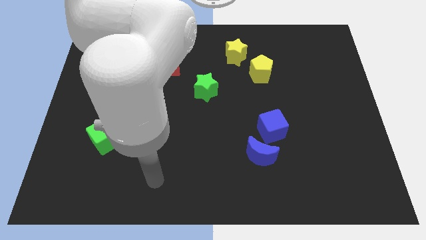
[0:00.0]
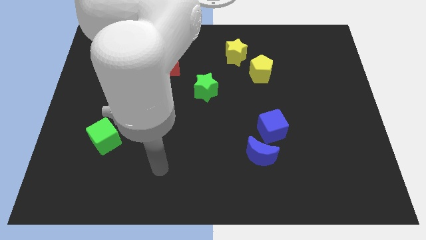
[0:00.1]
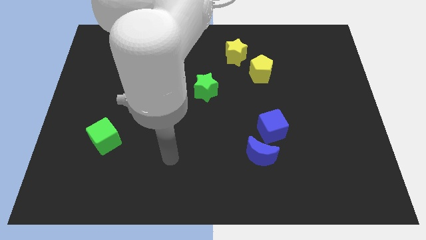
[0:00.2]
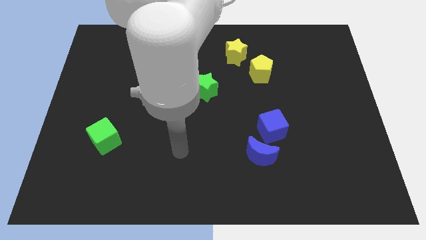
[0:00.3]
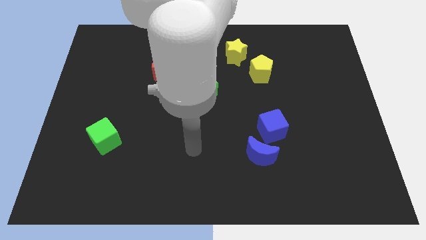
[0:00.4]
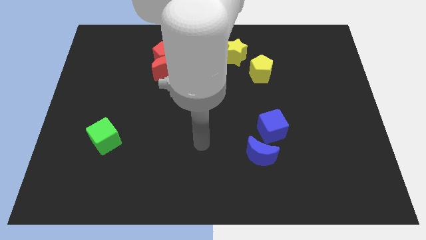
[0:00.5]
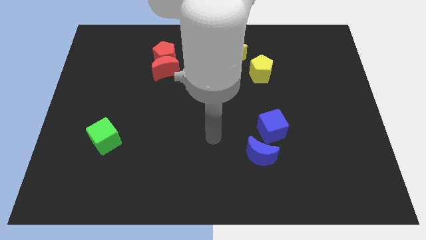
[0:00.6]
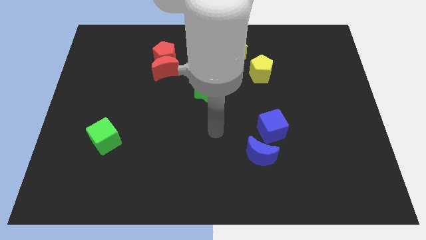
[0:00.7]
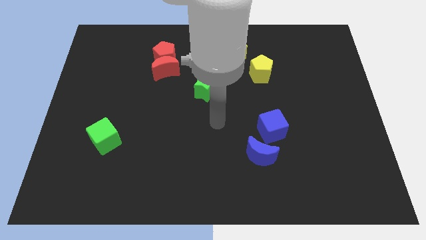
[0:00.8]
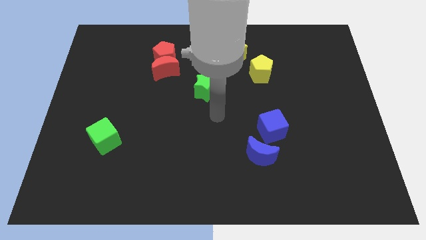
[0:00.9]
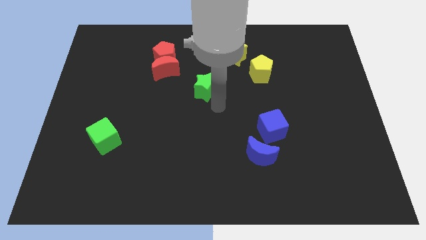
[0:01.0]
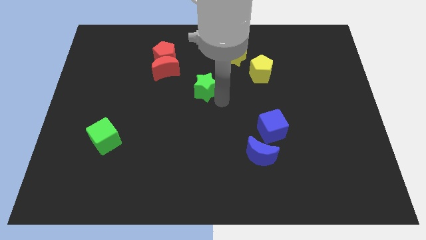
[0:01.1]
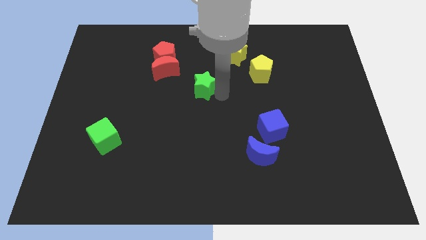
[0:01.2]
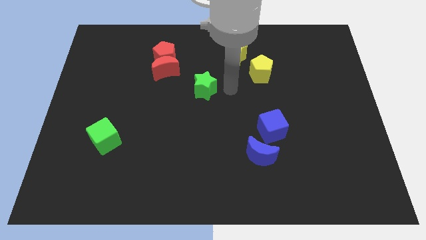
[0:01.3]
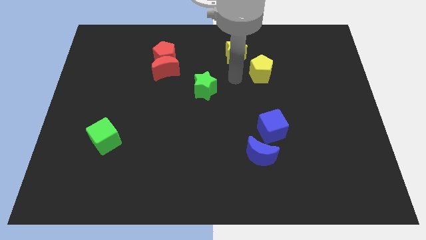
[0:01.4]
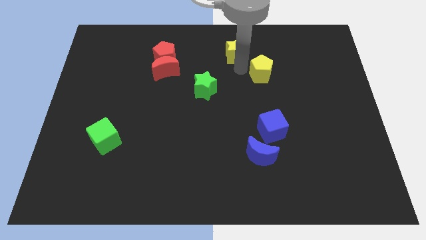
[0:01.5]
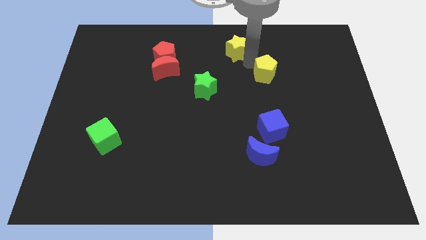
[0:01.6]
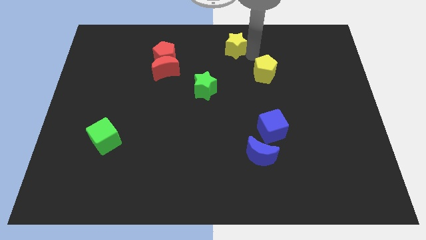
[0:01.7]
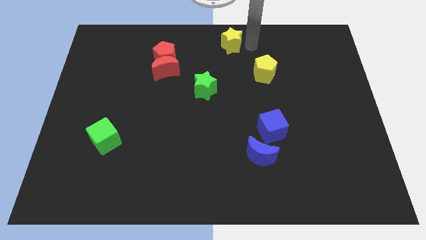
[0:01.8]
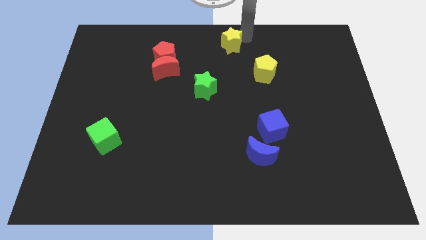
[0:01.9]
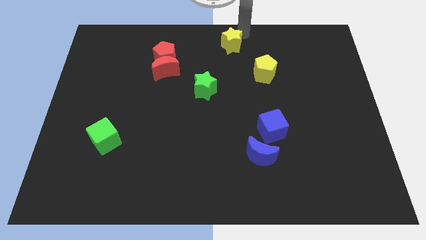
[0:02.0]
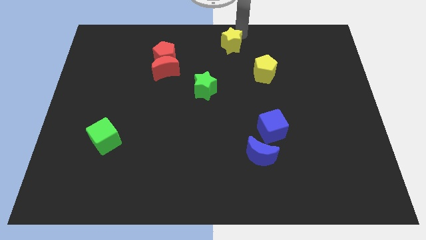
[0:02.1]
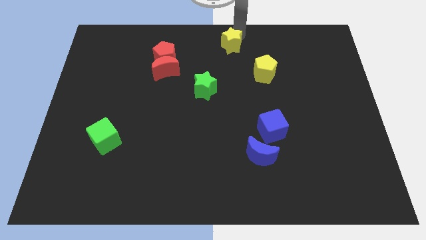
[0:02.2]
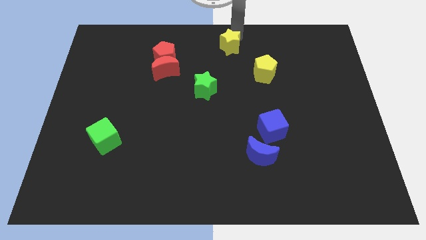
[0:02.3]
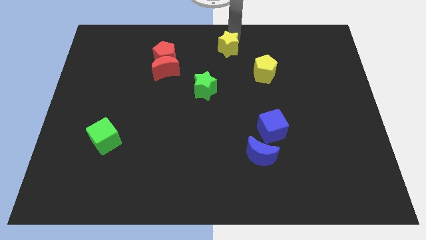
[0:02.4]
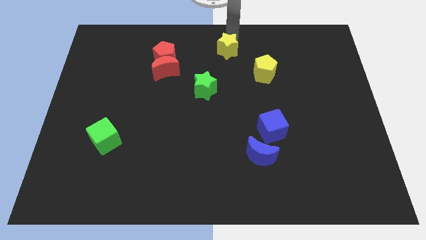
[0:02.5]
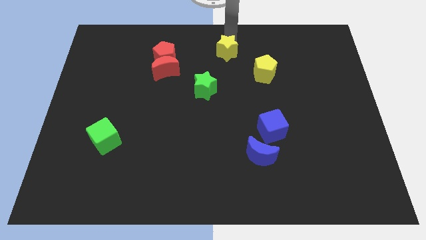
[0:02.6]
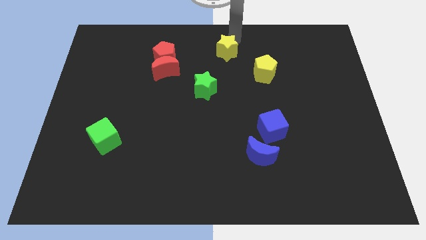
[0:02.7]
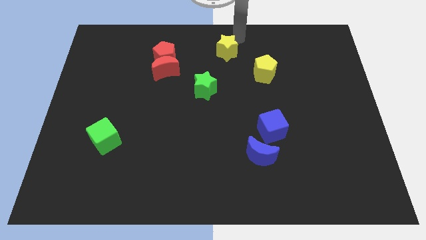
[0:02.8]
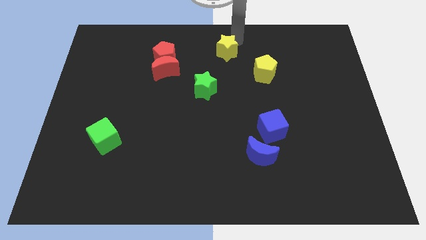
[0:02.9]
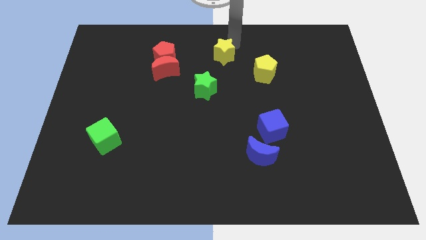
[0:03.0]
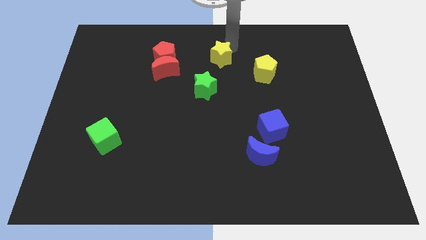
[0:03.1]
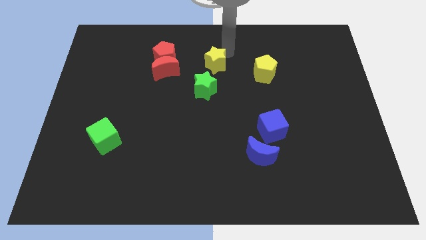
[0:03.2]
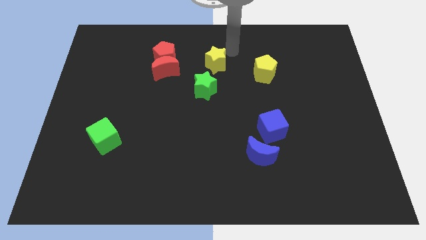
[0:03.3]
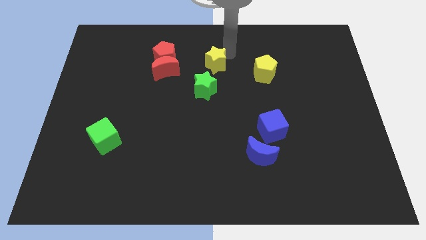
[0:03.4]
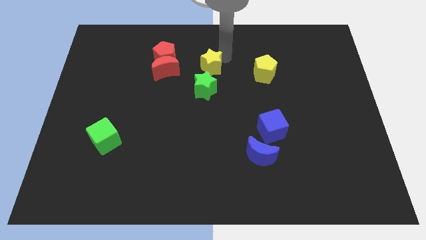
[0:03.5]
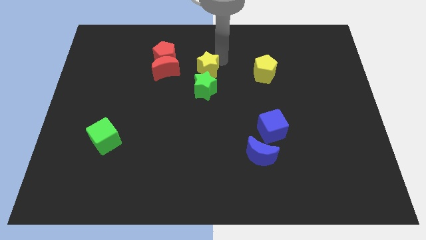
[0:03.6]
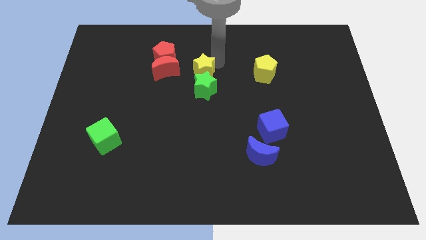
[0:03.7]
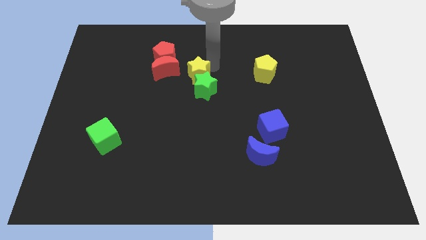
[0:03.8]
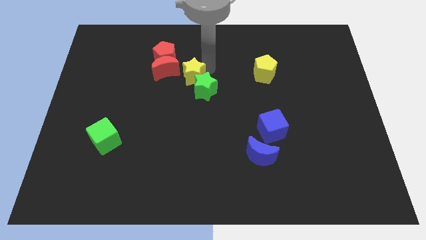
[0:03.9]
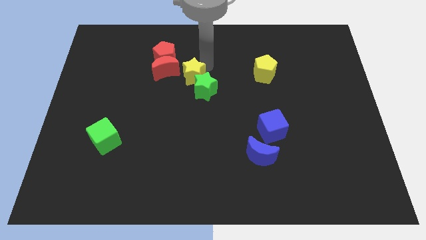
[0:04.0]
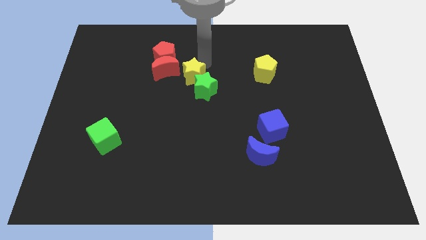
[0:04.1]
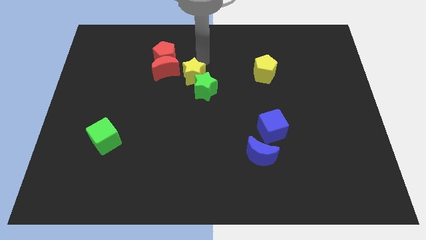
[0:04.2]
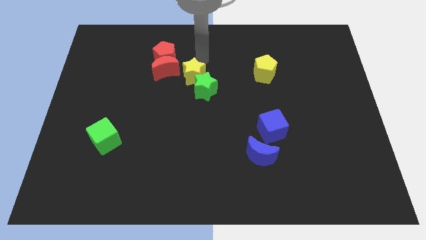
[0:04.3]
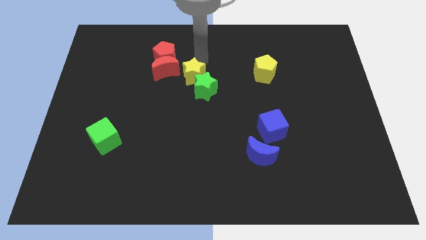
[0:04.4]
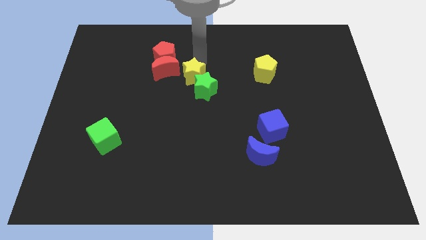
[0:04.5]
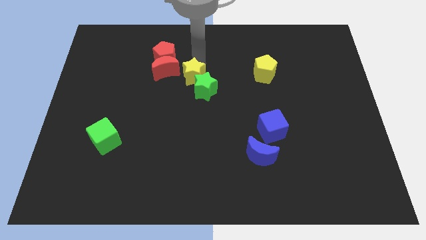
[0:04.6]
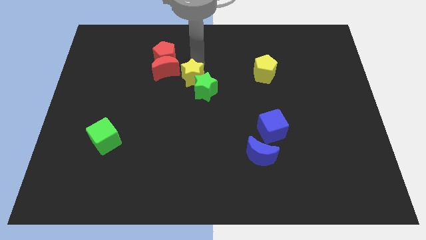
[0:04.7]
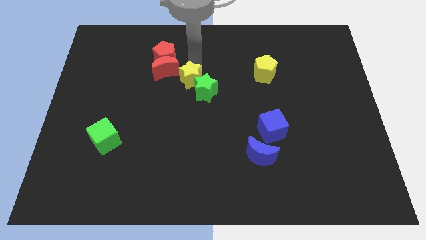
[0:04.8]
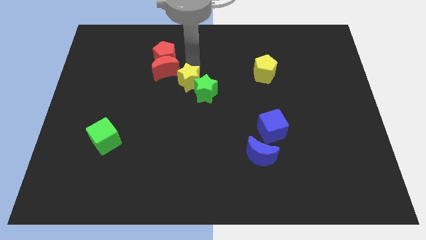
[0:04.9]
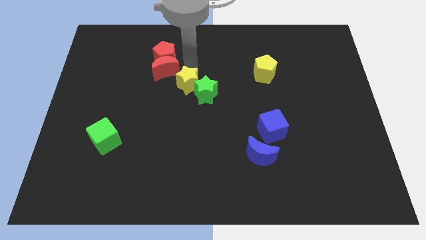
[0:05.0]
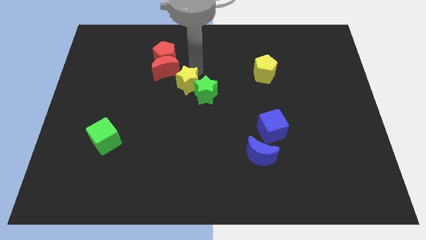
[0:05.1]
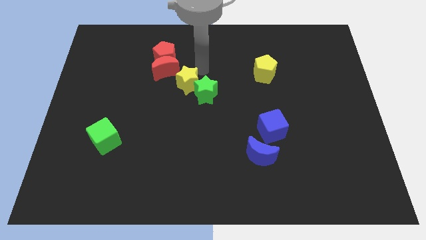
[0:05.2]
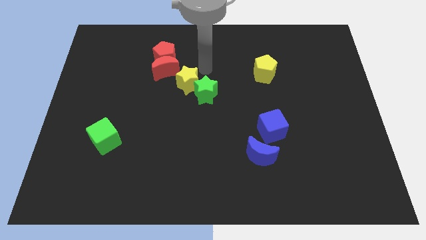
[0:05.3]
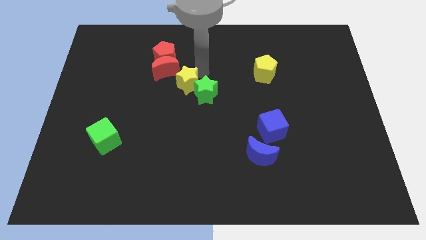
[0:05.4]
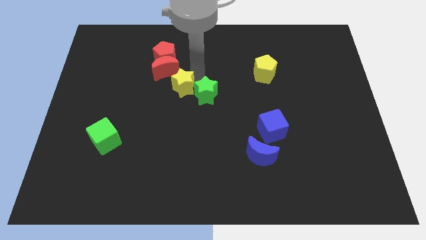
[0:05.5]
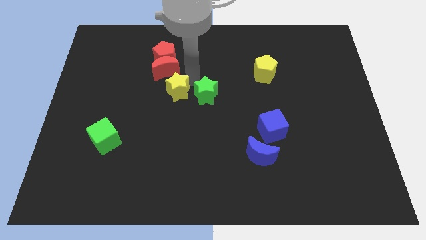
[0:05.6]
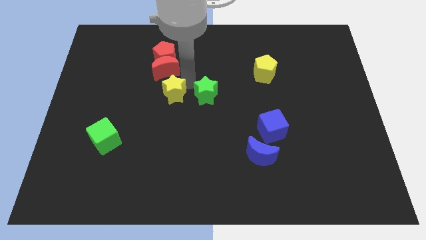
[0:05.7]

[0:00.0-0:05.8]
move the yellow star down and then to the left

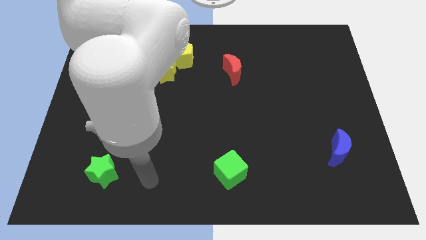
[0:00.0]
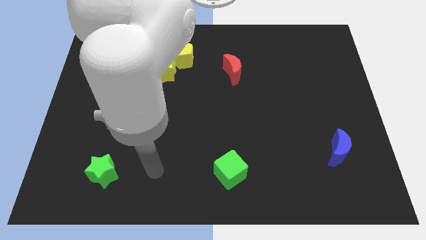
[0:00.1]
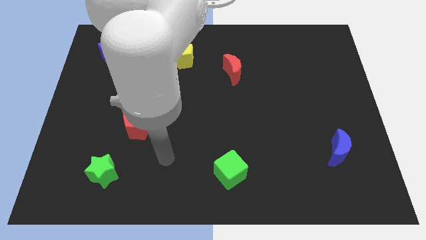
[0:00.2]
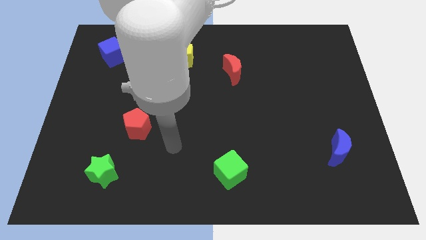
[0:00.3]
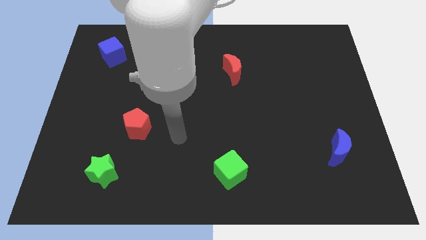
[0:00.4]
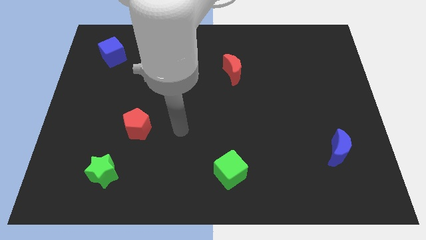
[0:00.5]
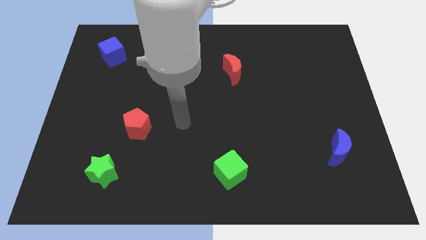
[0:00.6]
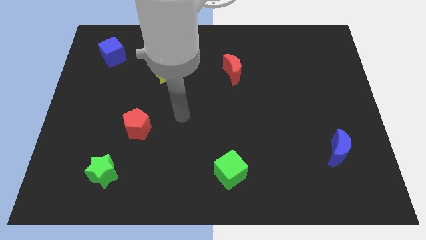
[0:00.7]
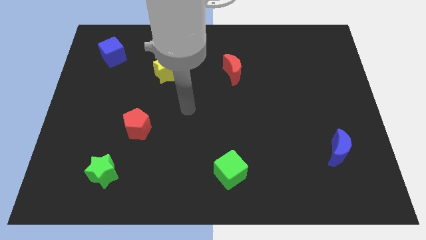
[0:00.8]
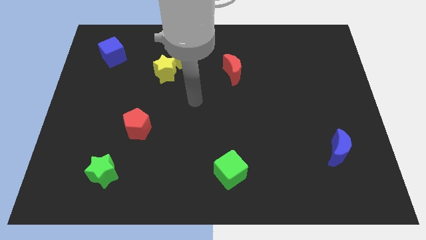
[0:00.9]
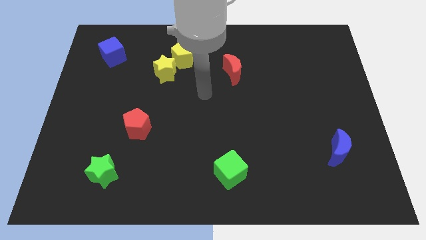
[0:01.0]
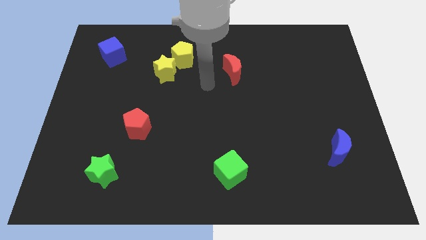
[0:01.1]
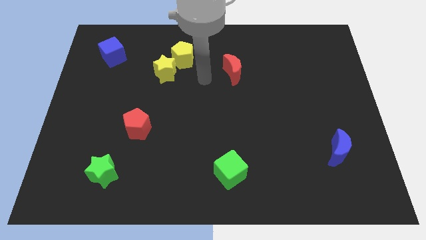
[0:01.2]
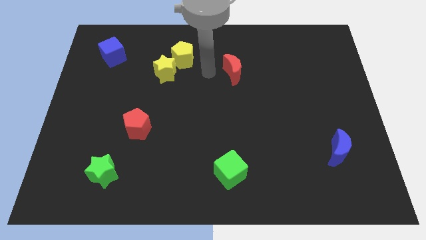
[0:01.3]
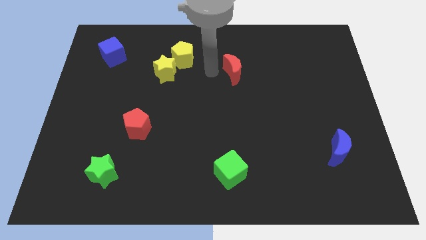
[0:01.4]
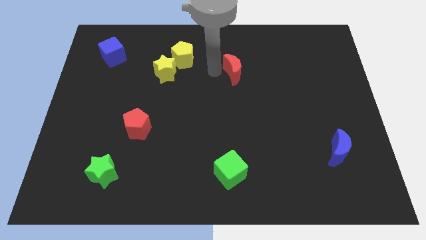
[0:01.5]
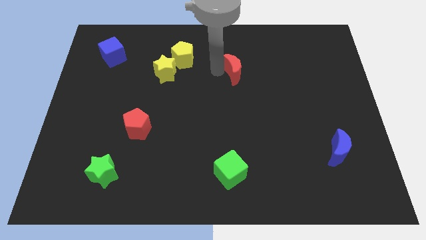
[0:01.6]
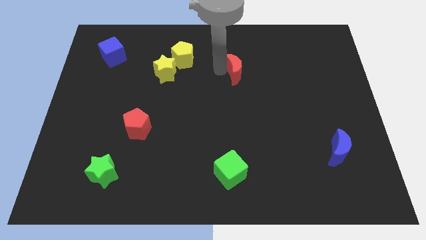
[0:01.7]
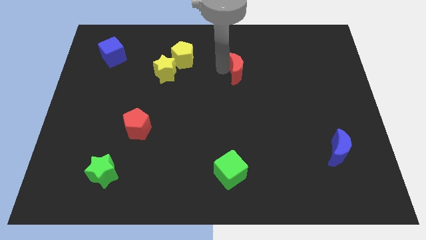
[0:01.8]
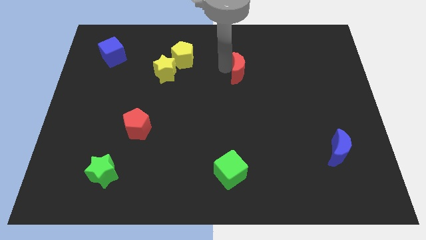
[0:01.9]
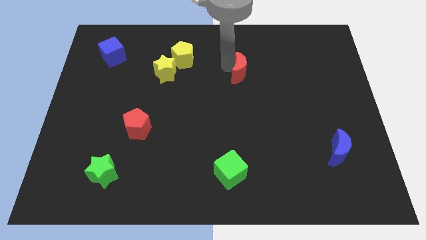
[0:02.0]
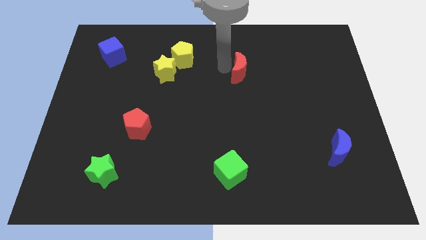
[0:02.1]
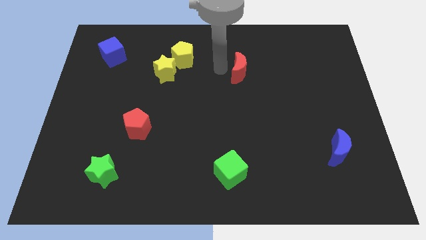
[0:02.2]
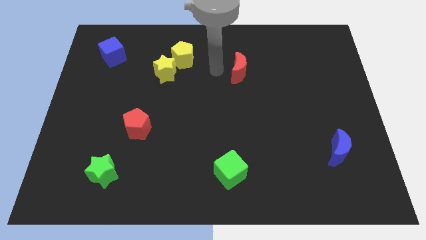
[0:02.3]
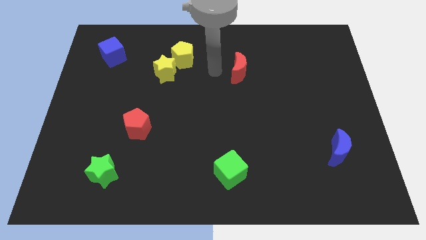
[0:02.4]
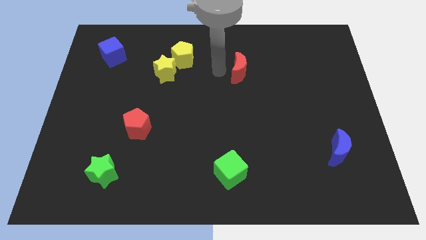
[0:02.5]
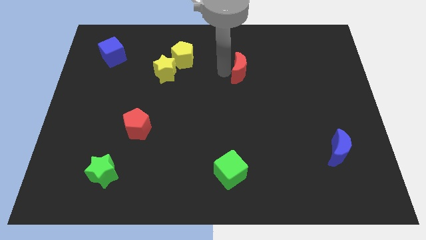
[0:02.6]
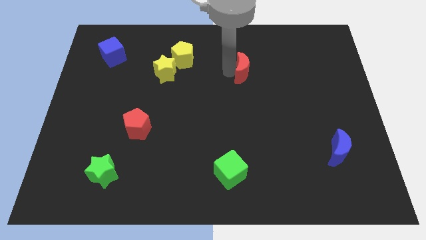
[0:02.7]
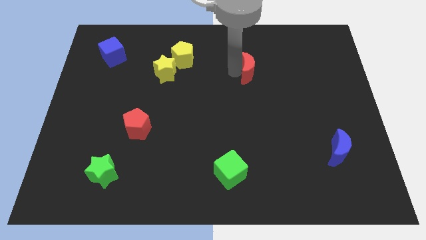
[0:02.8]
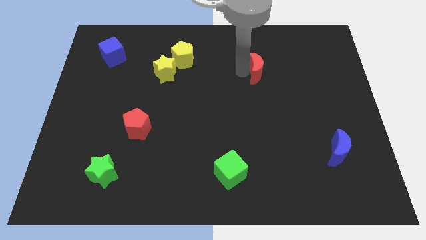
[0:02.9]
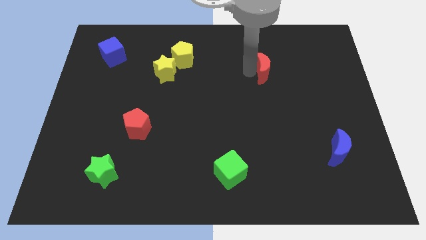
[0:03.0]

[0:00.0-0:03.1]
push the red moon a little bit to the right
